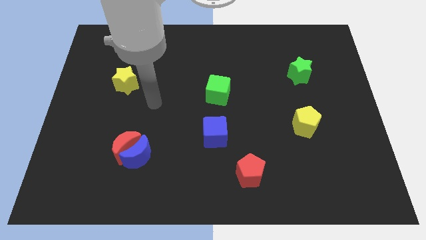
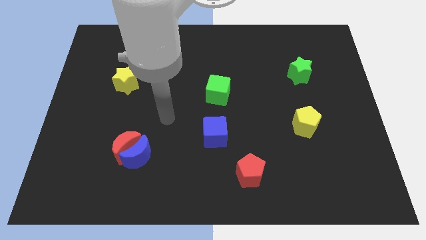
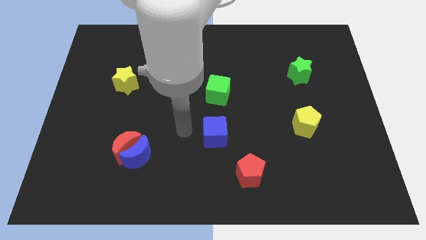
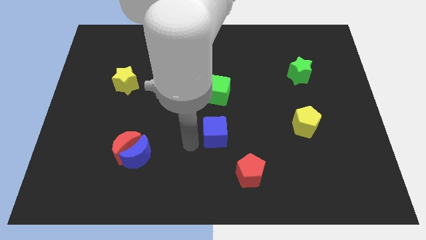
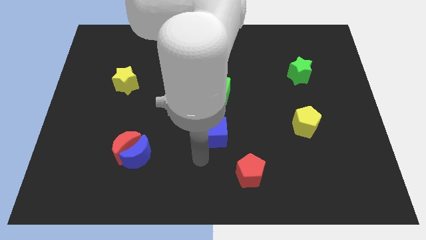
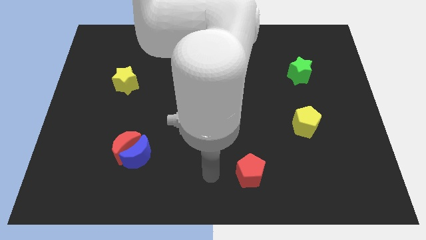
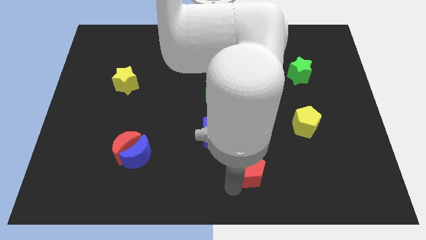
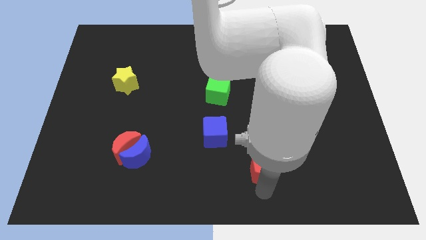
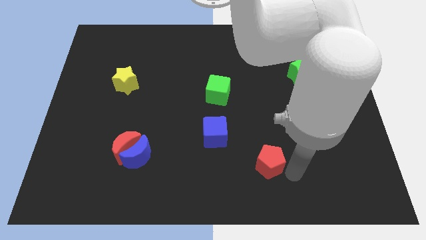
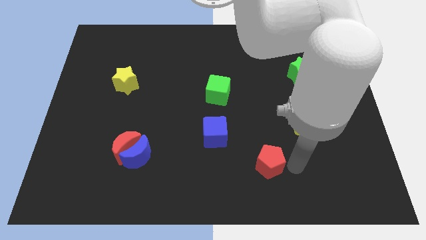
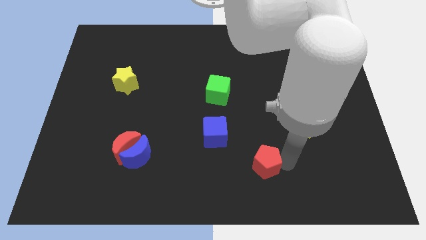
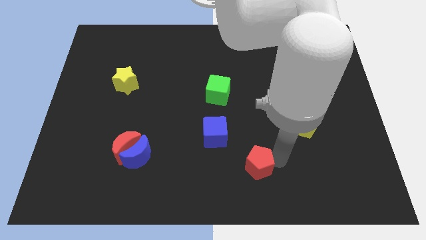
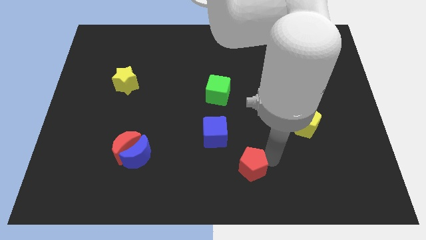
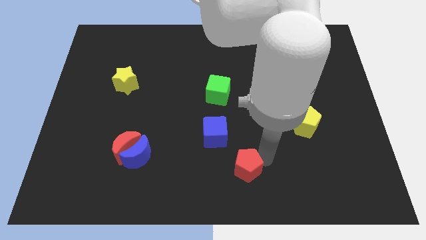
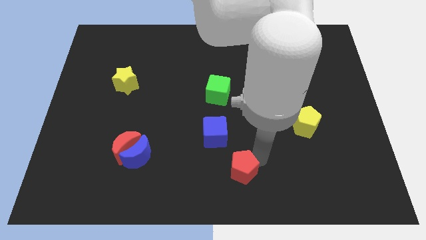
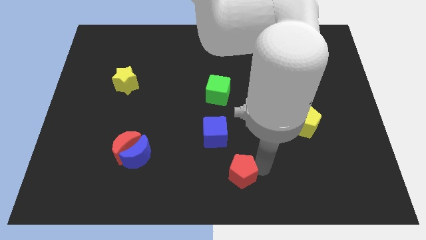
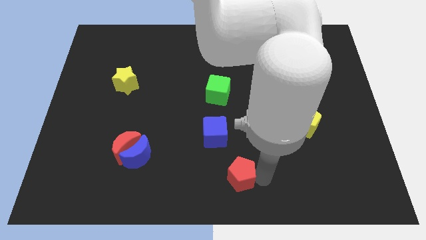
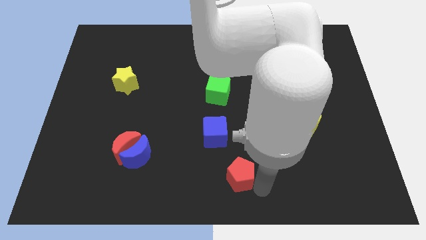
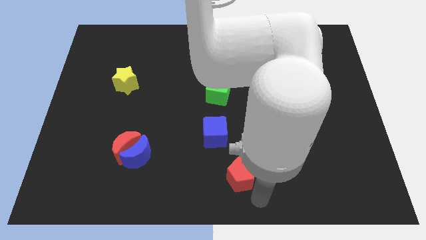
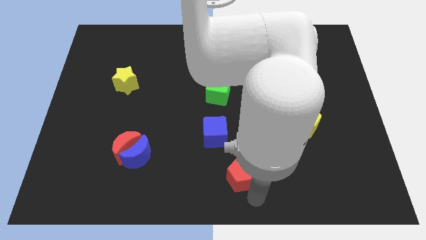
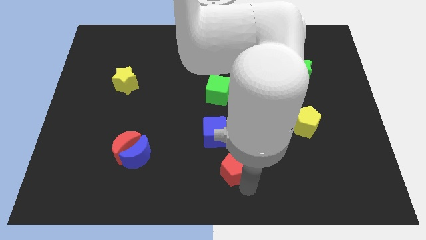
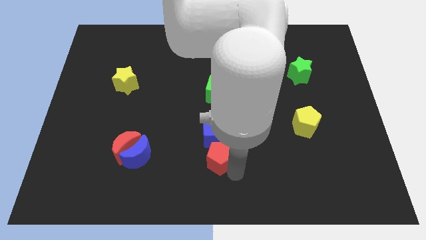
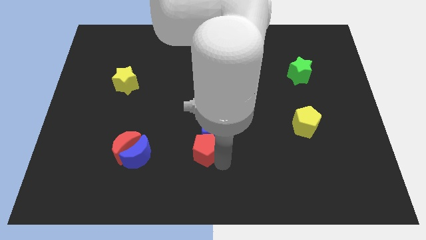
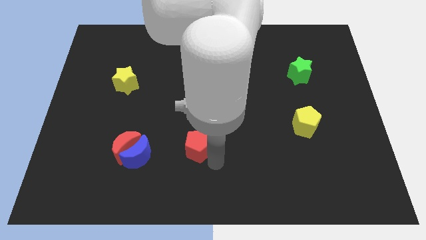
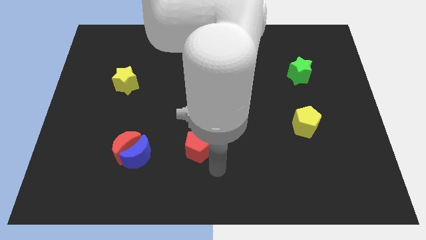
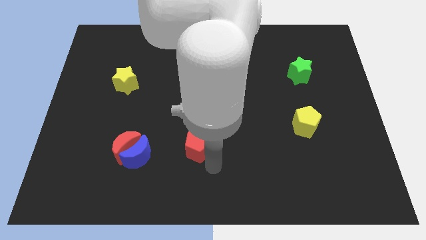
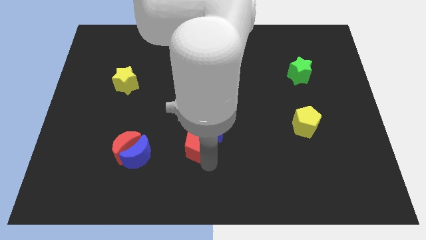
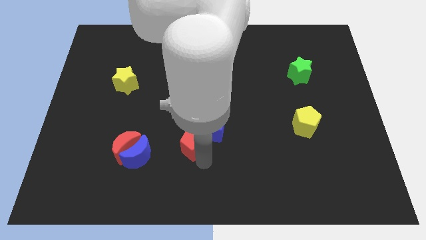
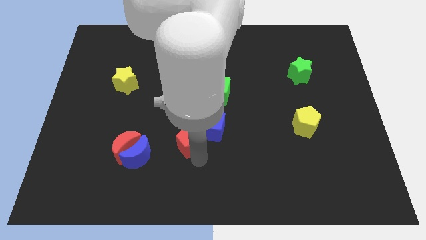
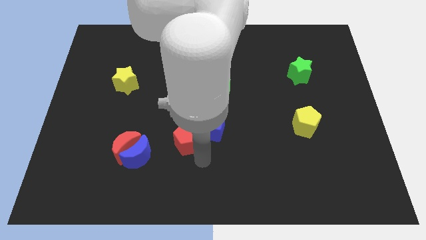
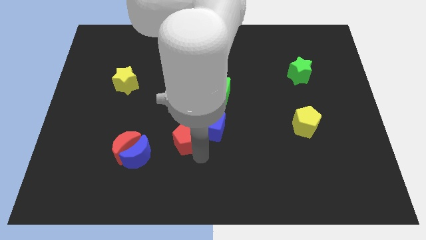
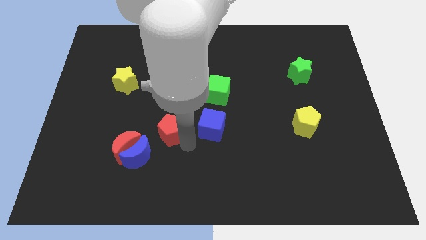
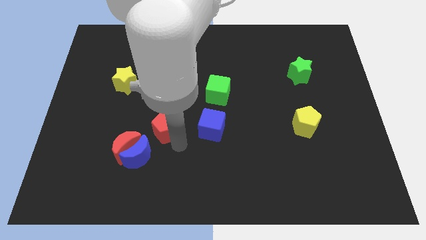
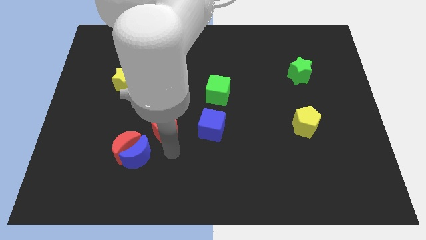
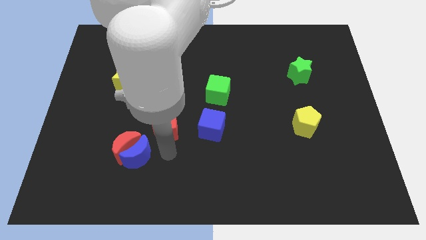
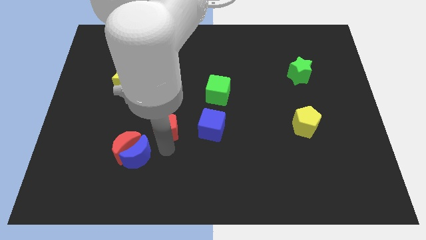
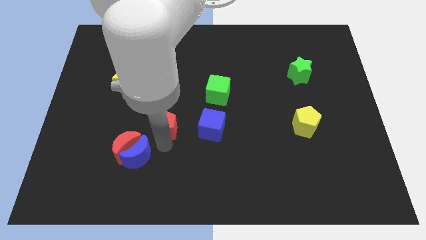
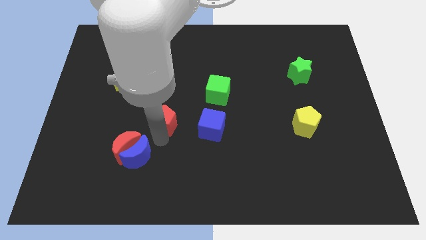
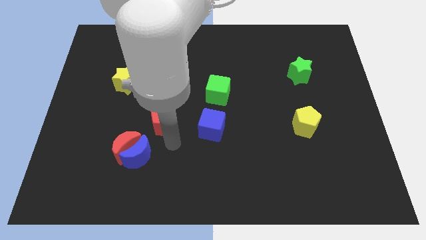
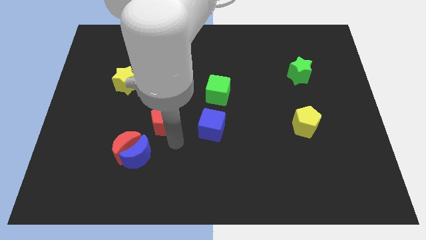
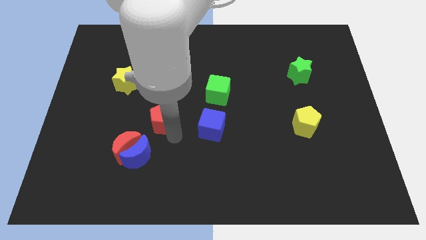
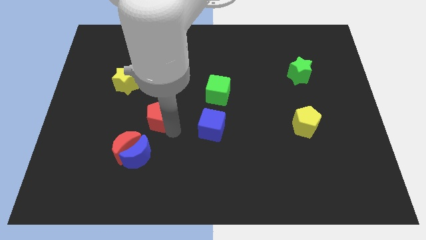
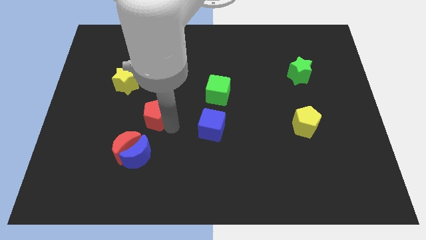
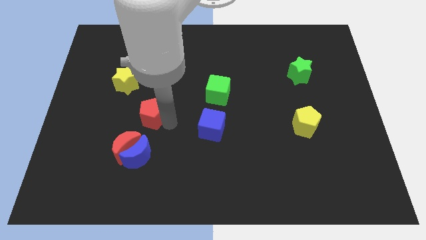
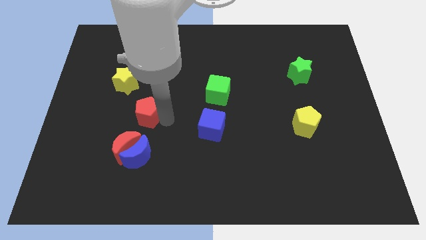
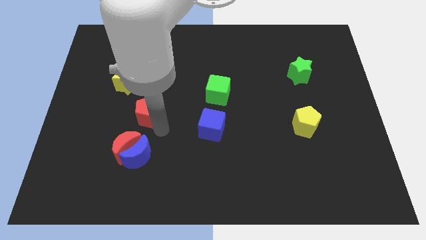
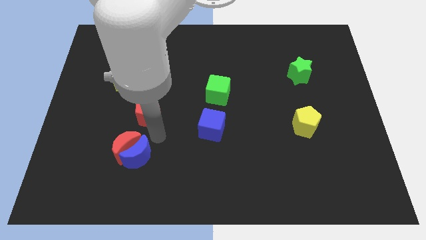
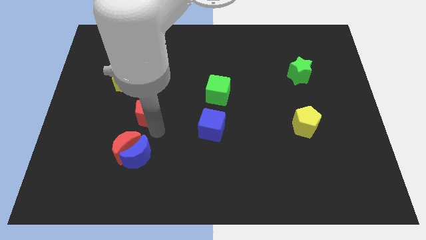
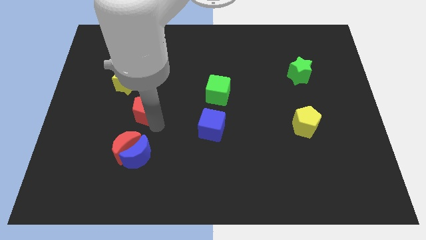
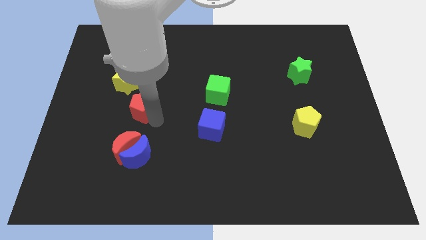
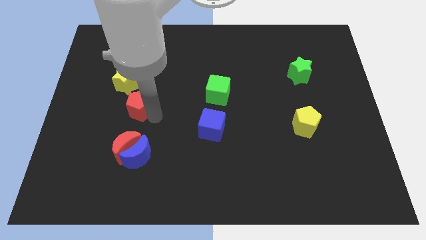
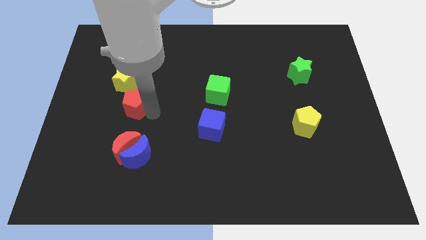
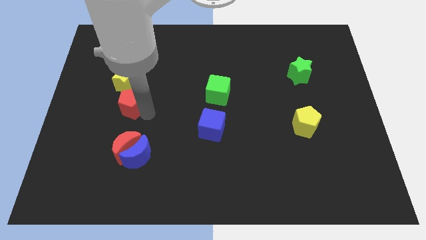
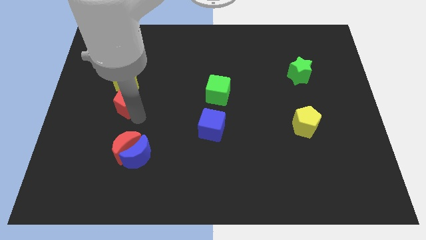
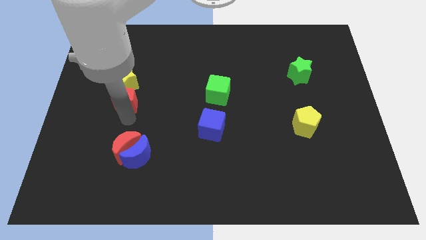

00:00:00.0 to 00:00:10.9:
slide the red pentagon towards the yellow star

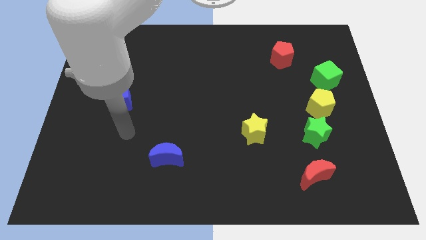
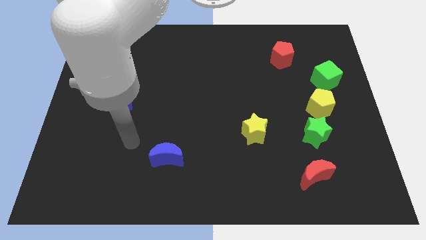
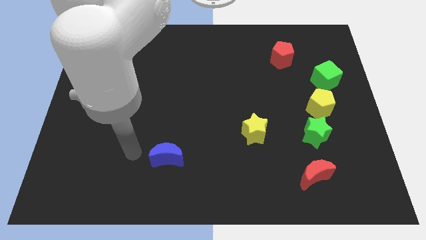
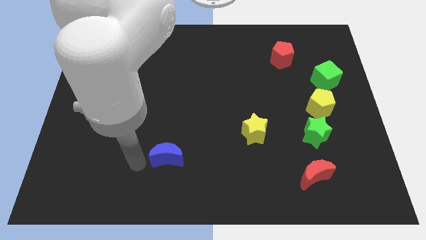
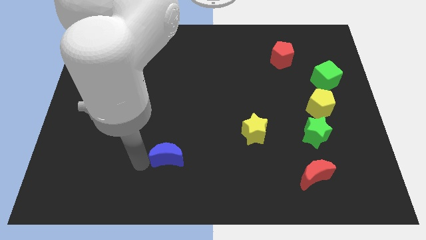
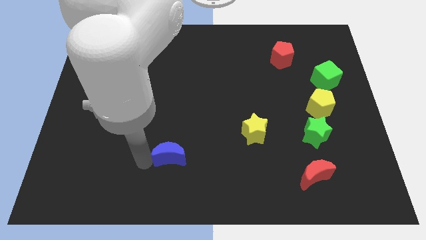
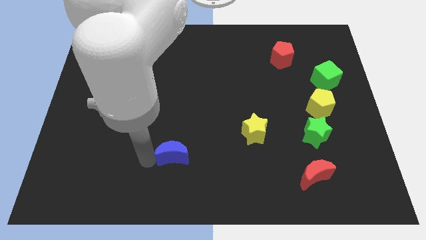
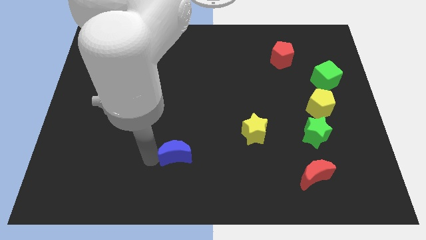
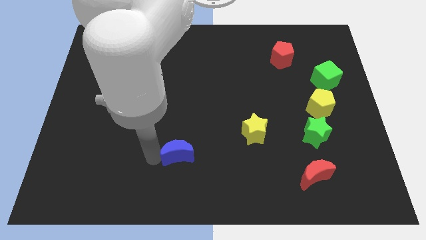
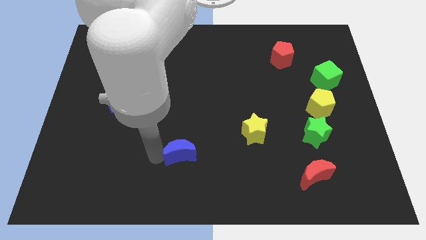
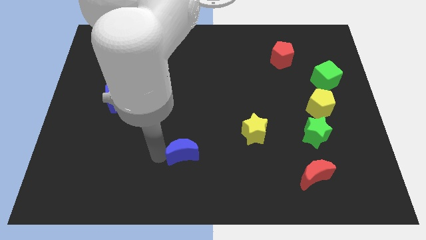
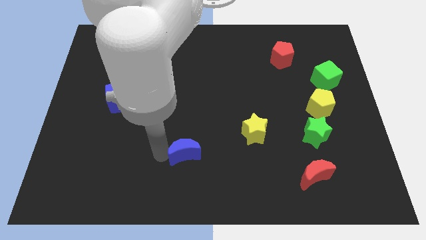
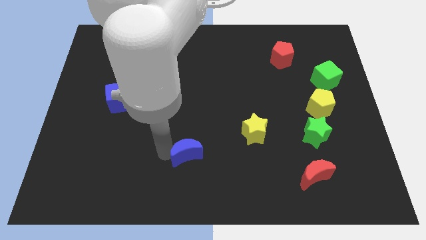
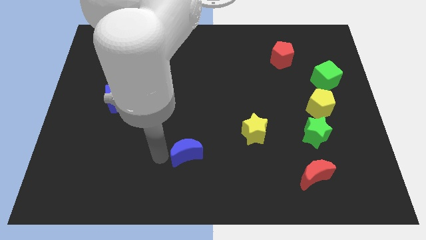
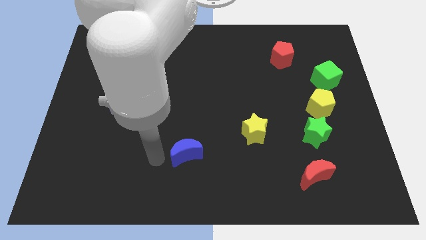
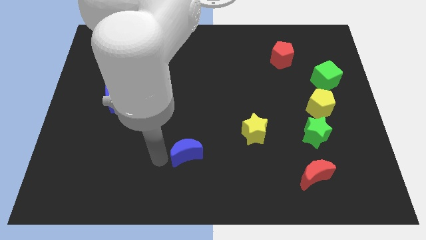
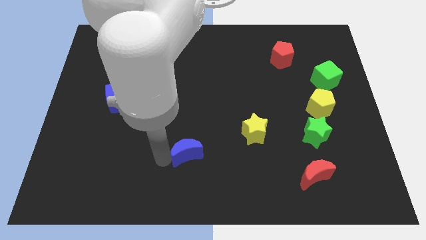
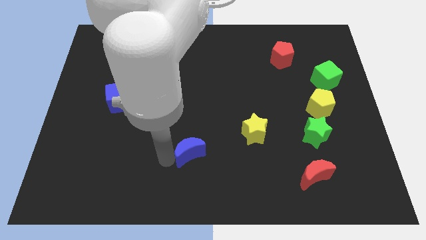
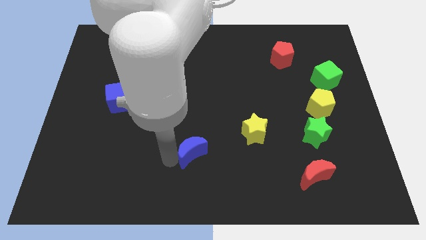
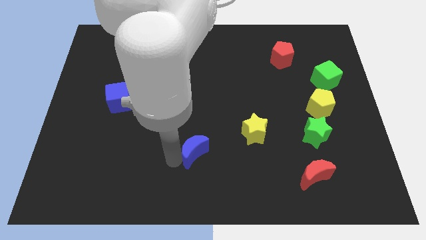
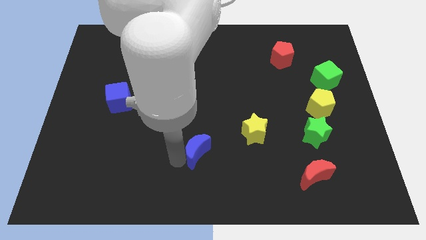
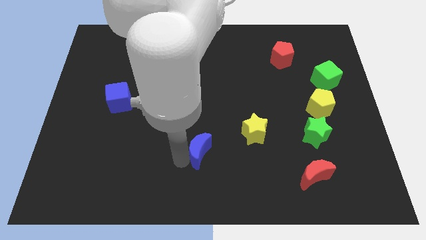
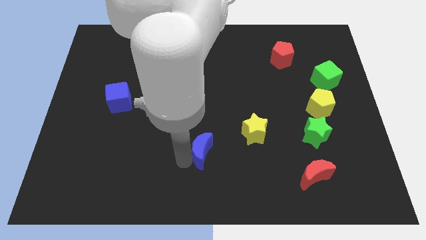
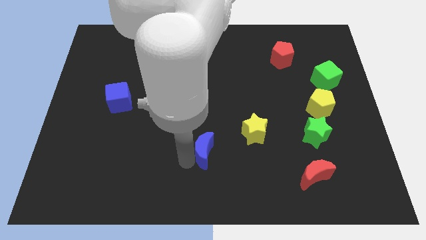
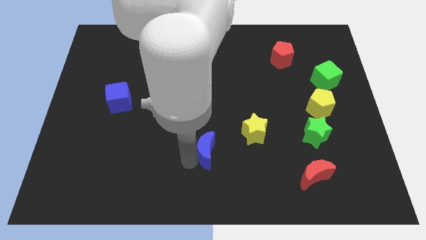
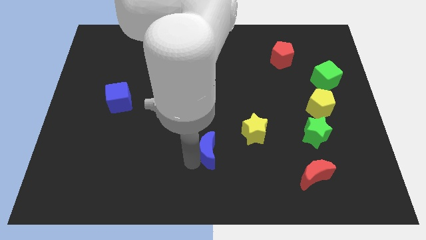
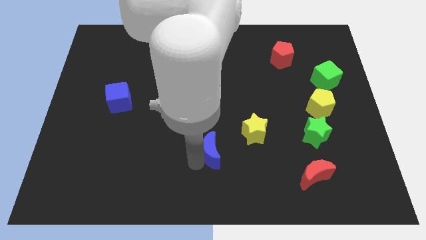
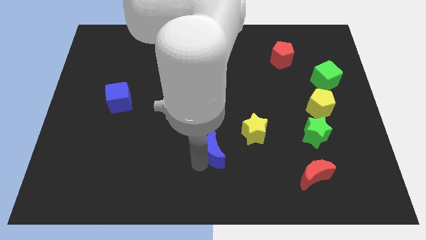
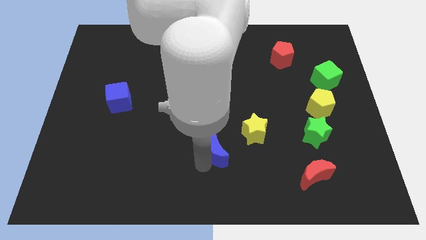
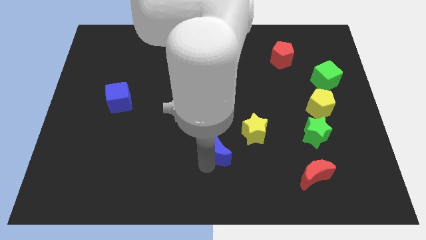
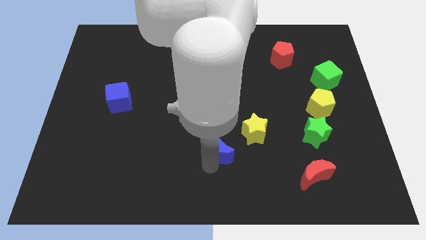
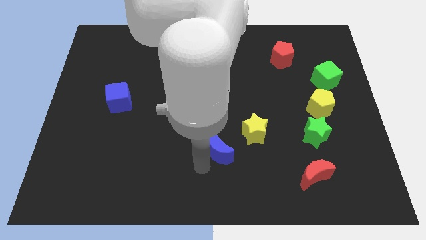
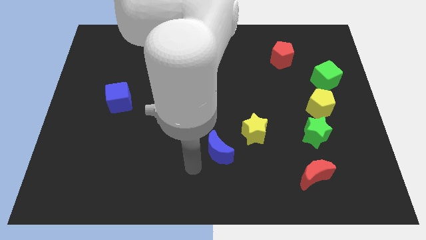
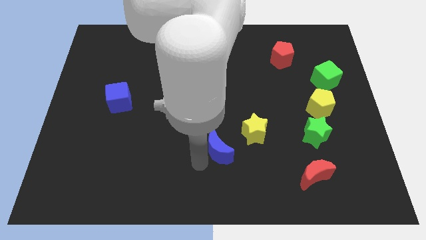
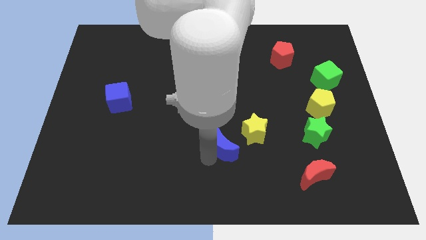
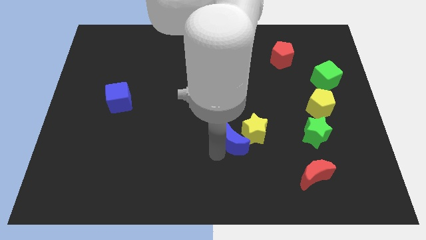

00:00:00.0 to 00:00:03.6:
slide the blue moon towards the yellow star
